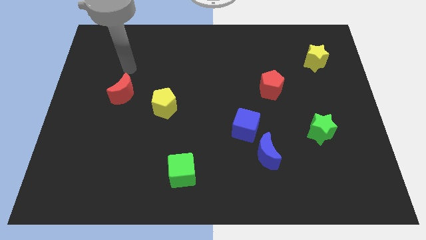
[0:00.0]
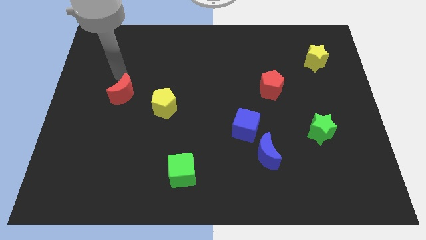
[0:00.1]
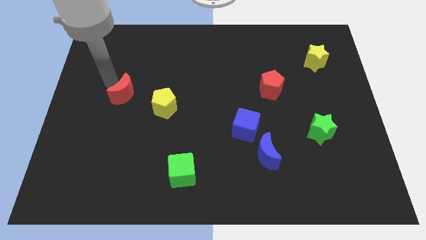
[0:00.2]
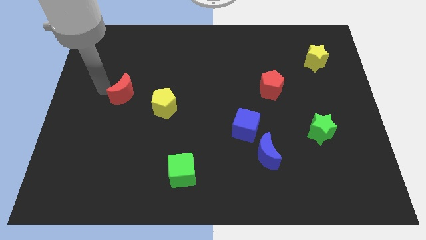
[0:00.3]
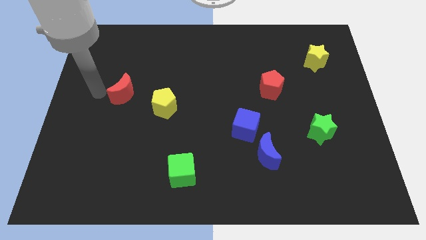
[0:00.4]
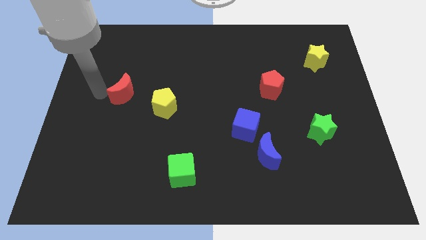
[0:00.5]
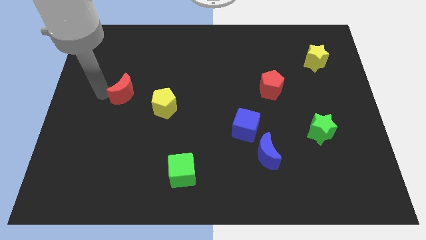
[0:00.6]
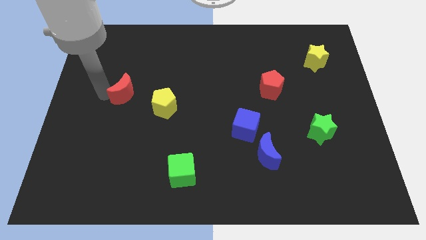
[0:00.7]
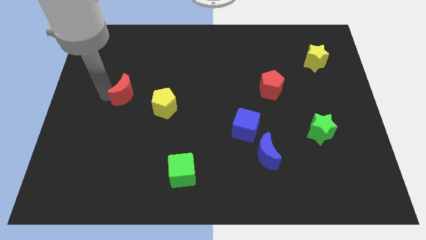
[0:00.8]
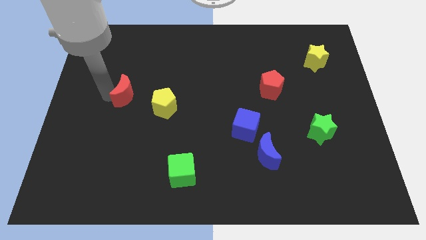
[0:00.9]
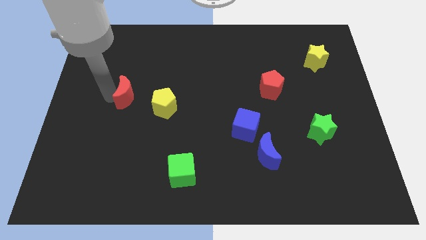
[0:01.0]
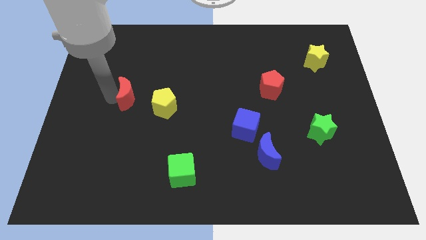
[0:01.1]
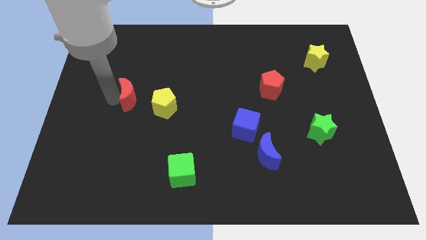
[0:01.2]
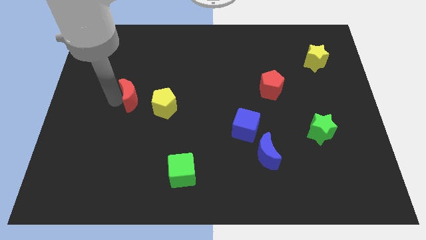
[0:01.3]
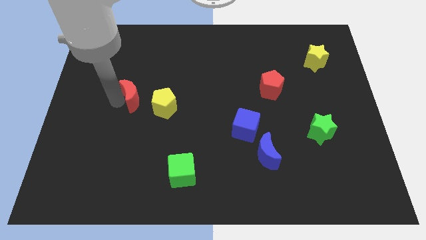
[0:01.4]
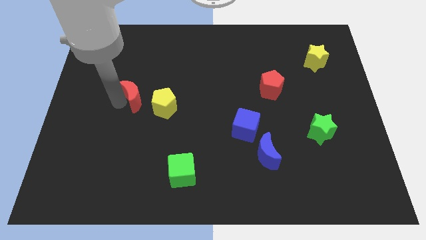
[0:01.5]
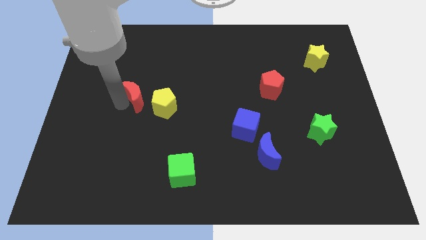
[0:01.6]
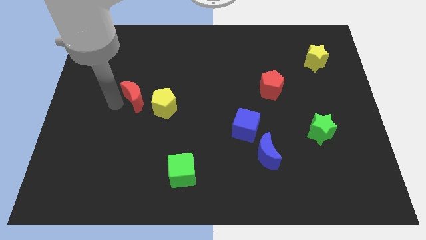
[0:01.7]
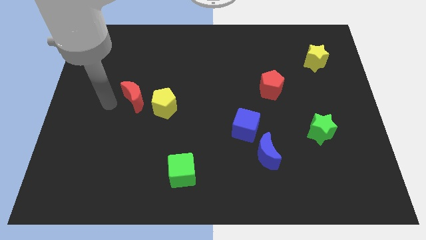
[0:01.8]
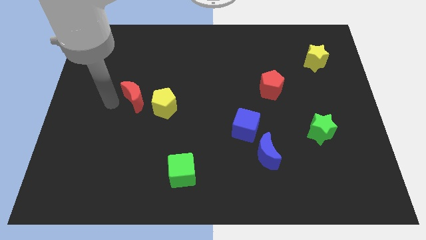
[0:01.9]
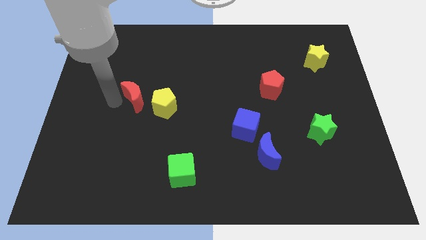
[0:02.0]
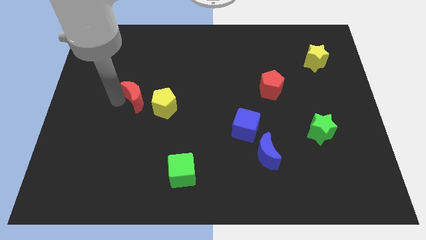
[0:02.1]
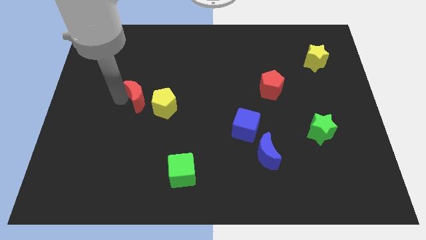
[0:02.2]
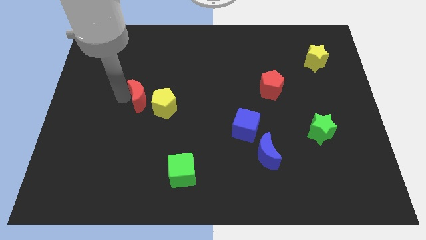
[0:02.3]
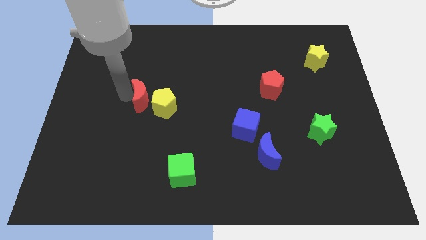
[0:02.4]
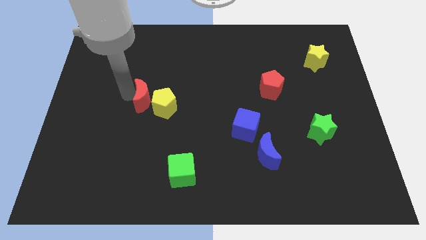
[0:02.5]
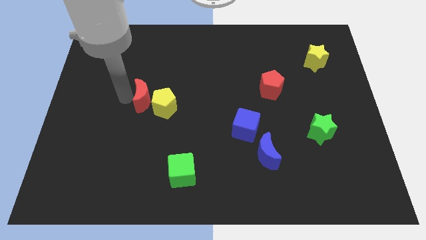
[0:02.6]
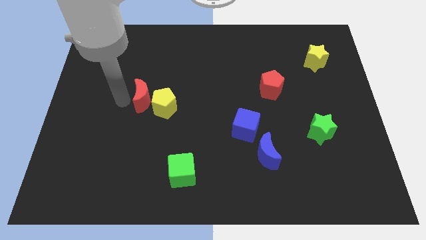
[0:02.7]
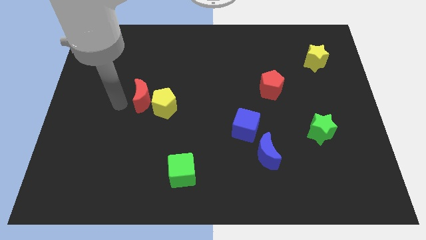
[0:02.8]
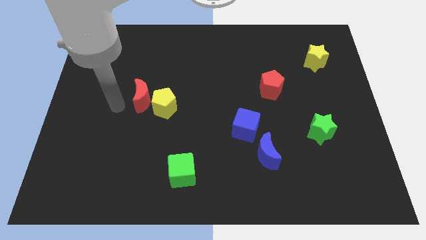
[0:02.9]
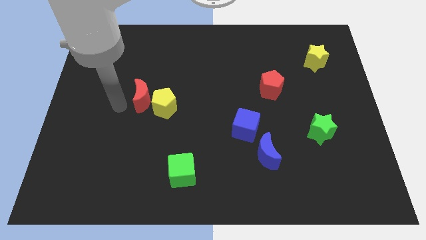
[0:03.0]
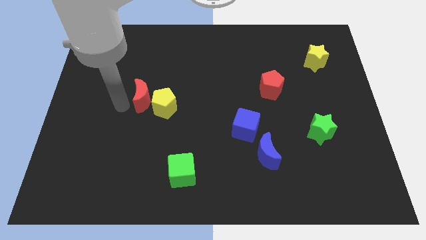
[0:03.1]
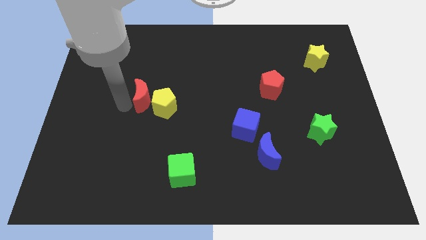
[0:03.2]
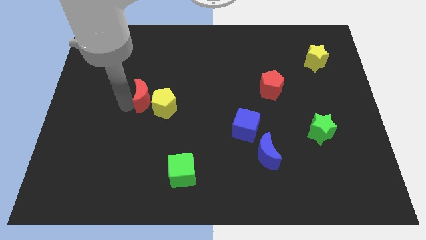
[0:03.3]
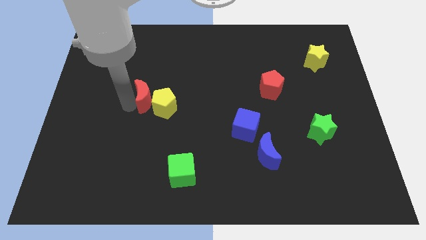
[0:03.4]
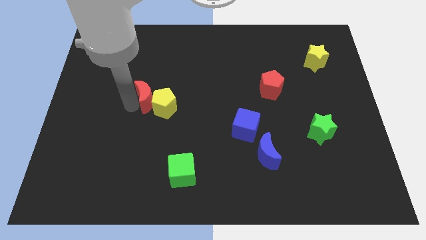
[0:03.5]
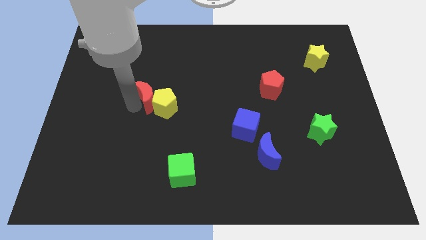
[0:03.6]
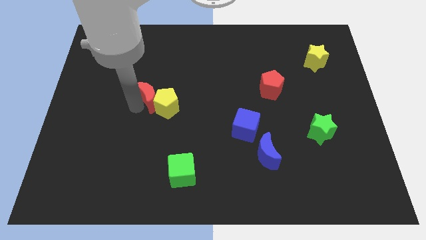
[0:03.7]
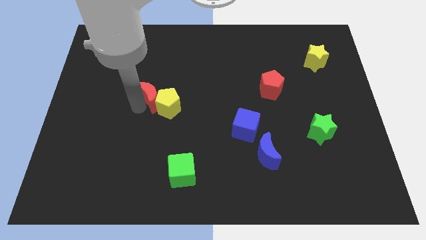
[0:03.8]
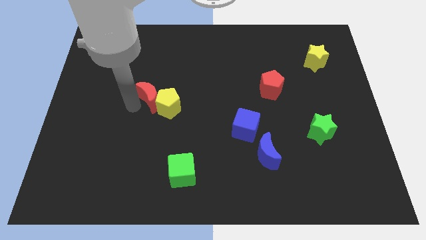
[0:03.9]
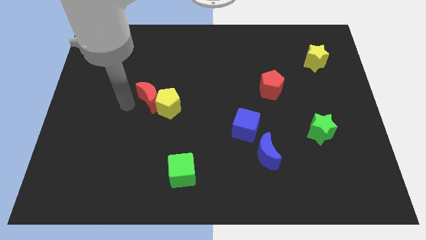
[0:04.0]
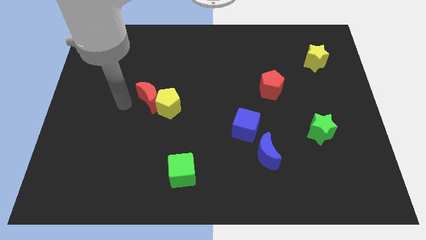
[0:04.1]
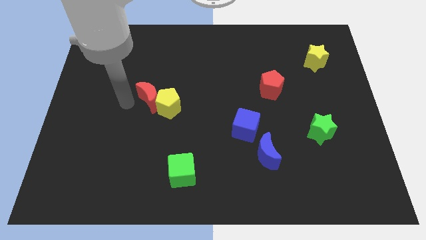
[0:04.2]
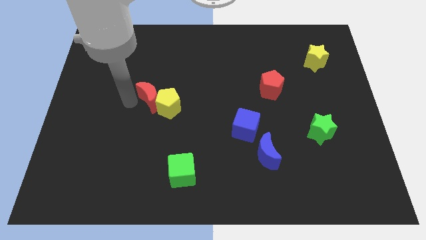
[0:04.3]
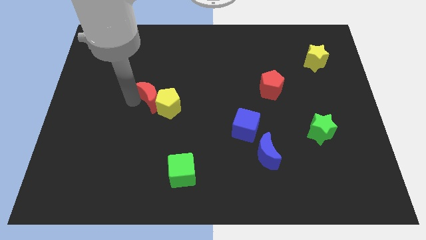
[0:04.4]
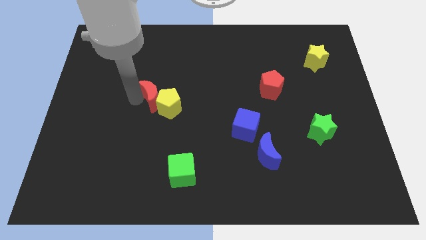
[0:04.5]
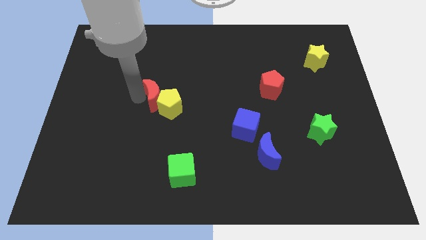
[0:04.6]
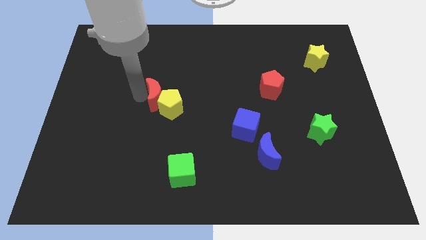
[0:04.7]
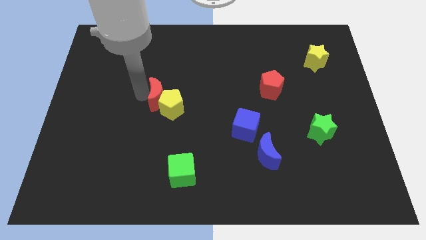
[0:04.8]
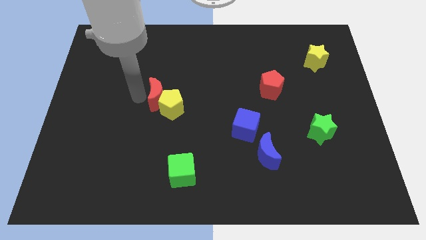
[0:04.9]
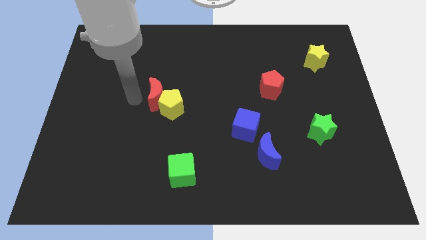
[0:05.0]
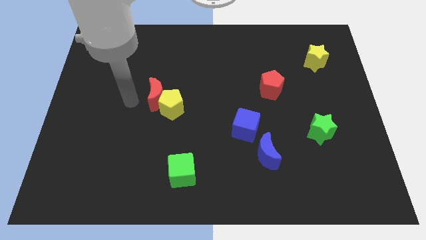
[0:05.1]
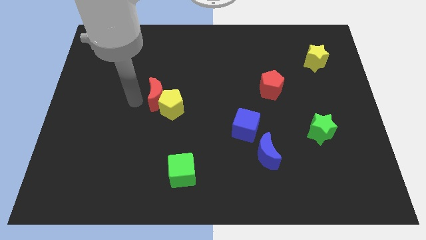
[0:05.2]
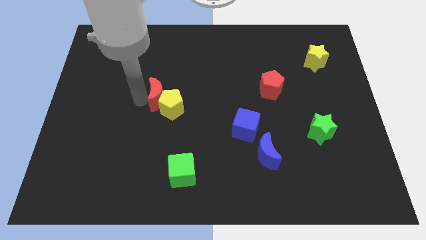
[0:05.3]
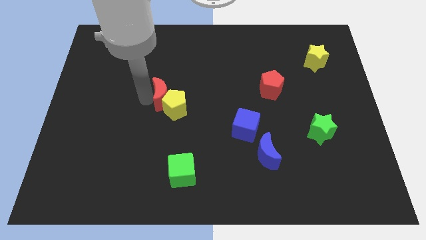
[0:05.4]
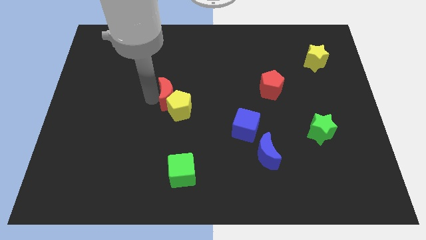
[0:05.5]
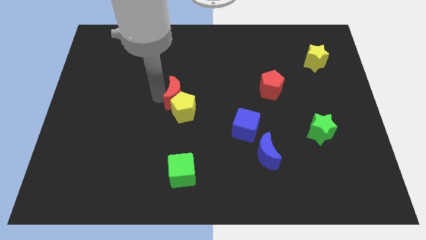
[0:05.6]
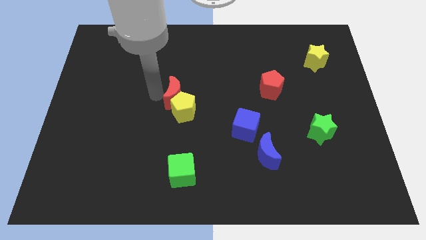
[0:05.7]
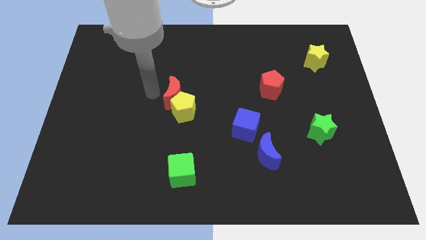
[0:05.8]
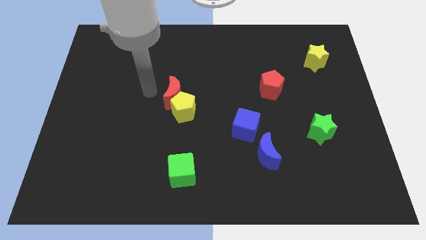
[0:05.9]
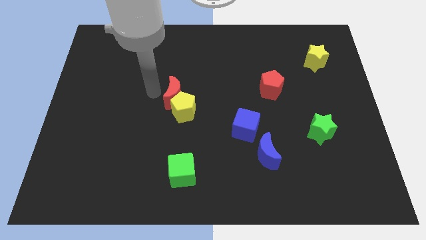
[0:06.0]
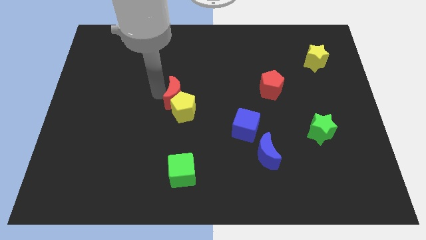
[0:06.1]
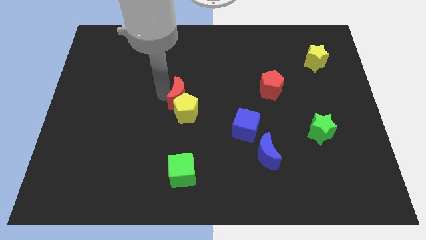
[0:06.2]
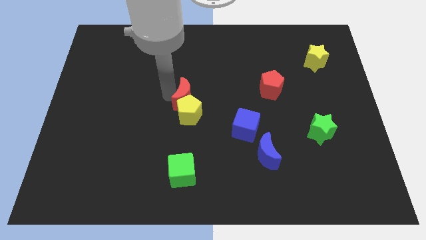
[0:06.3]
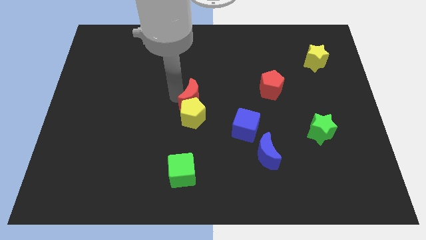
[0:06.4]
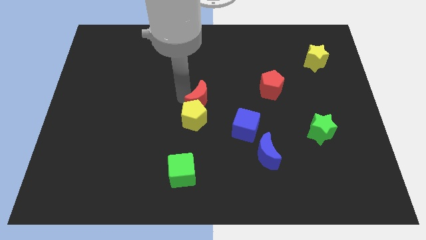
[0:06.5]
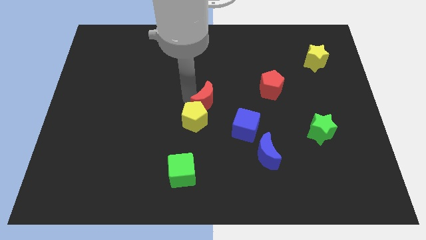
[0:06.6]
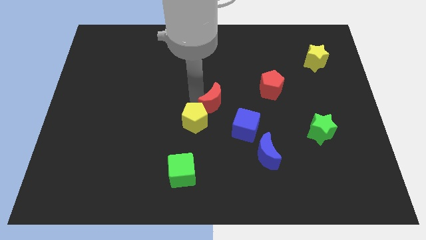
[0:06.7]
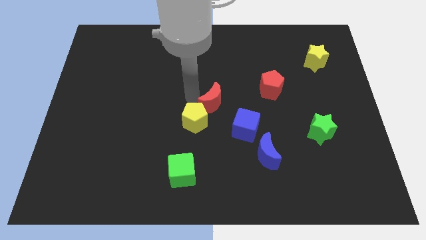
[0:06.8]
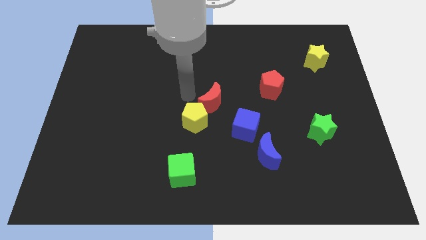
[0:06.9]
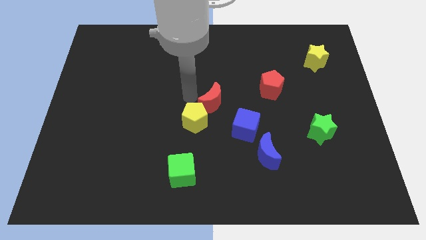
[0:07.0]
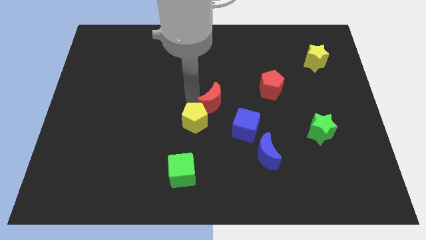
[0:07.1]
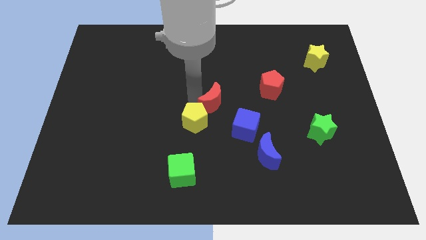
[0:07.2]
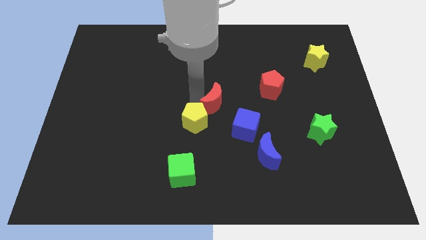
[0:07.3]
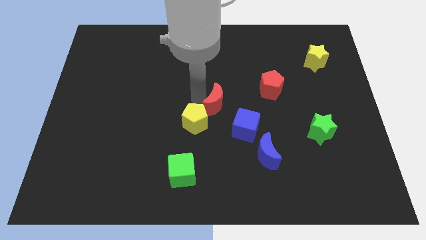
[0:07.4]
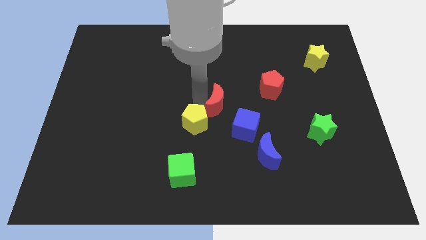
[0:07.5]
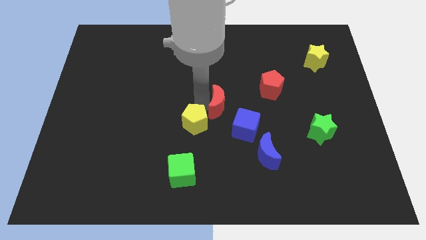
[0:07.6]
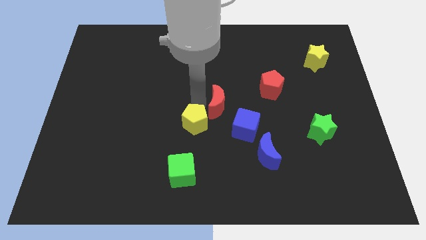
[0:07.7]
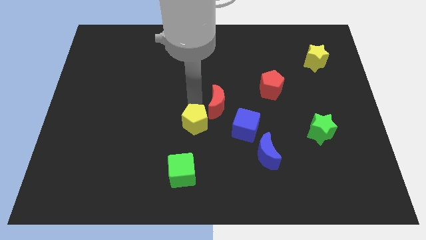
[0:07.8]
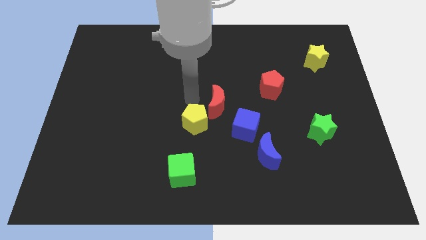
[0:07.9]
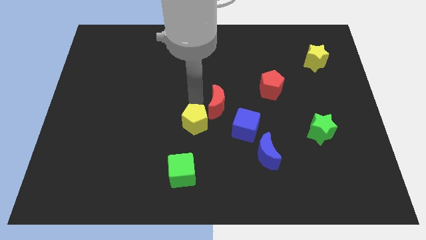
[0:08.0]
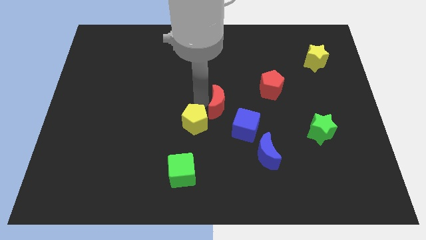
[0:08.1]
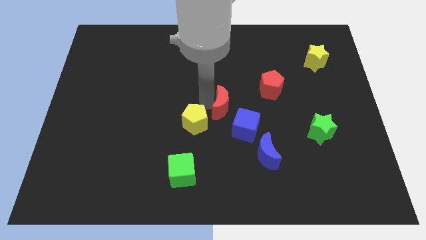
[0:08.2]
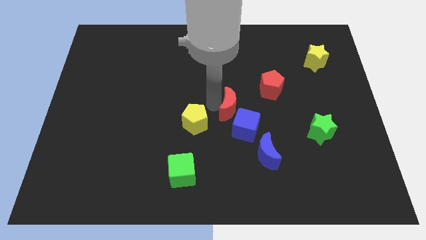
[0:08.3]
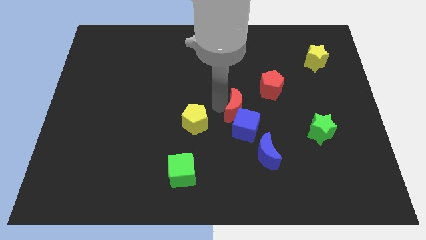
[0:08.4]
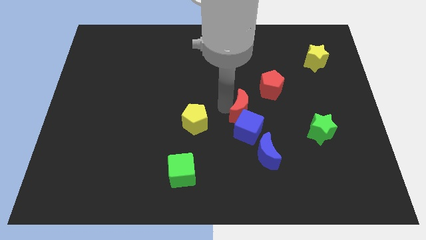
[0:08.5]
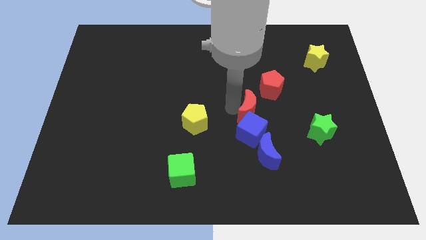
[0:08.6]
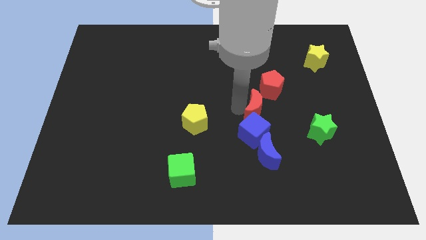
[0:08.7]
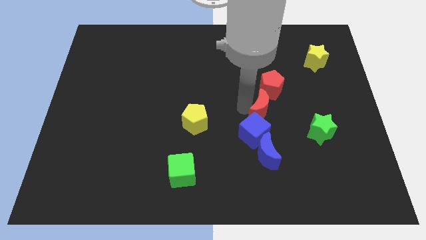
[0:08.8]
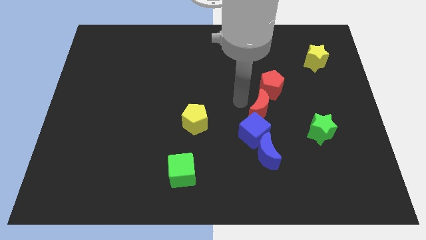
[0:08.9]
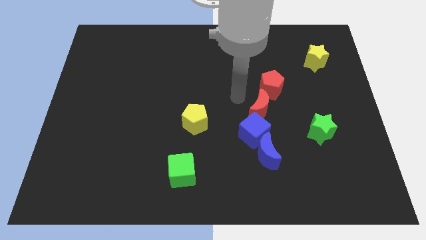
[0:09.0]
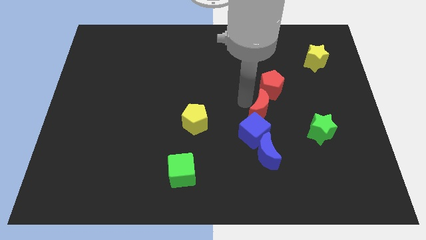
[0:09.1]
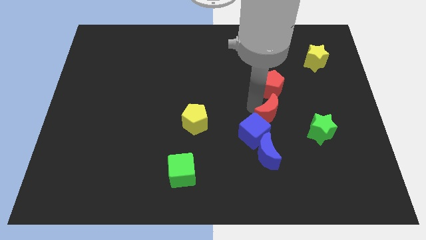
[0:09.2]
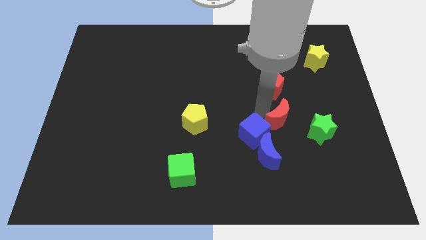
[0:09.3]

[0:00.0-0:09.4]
push the red moon right of the blue cube
